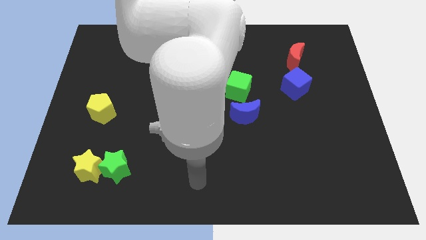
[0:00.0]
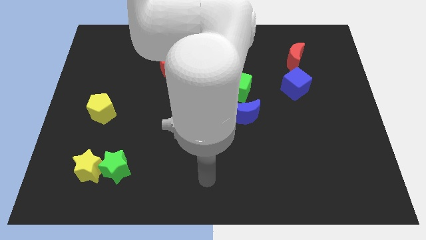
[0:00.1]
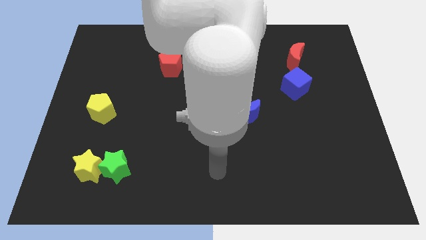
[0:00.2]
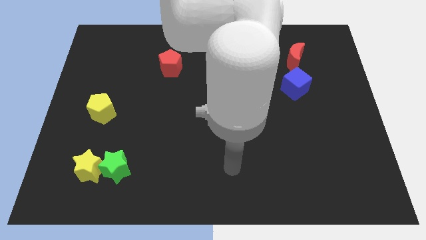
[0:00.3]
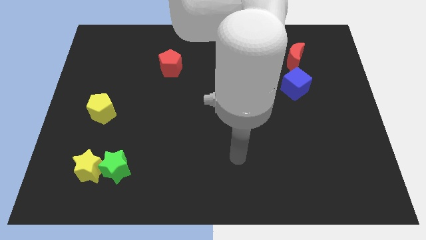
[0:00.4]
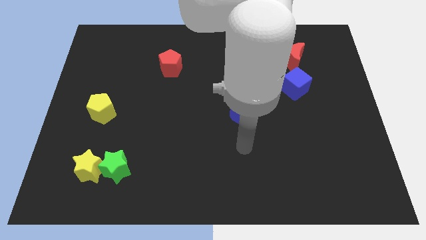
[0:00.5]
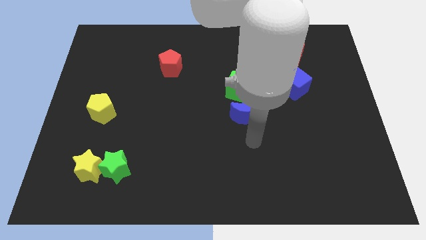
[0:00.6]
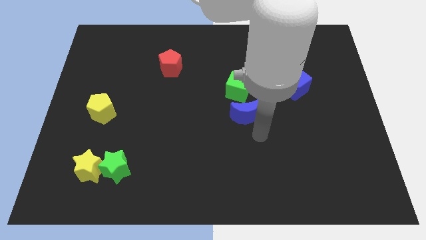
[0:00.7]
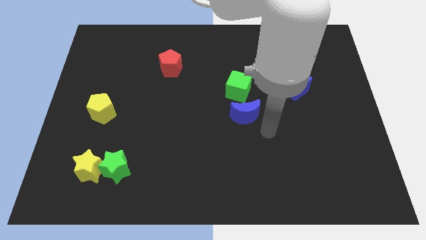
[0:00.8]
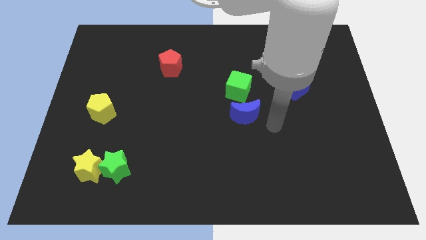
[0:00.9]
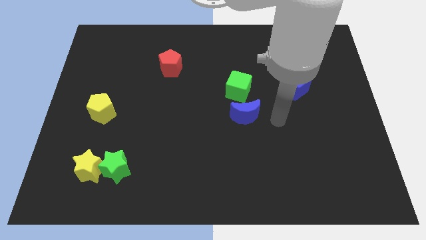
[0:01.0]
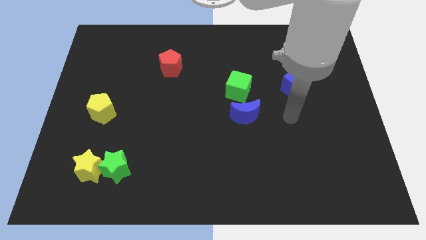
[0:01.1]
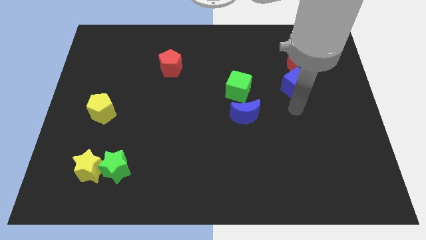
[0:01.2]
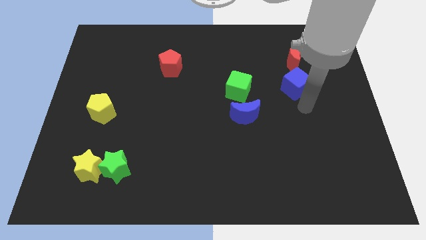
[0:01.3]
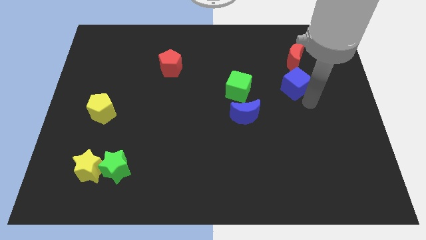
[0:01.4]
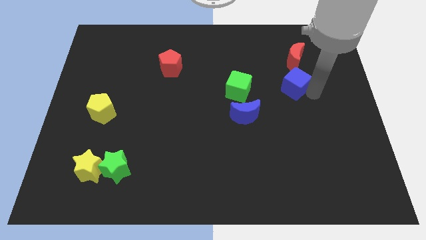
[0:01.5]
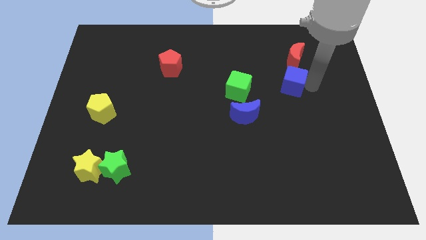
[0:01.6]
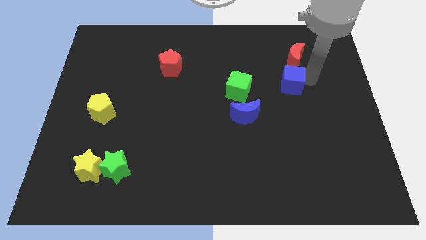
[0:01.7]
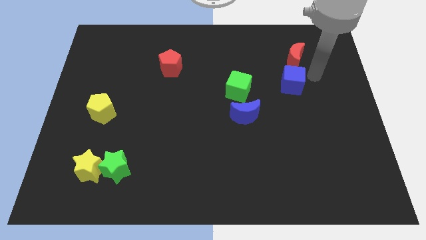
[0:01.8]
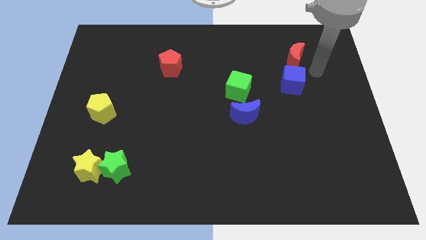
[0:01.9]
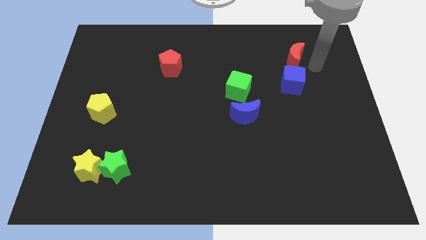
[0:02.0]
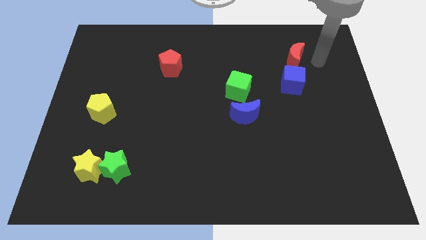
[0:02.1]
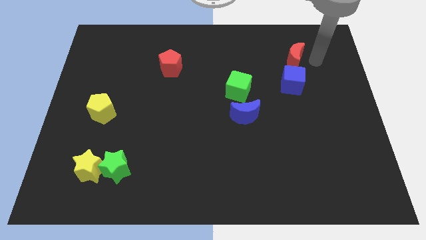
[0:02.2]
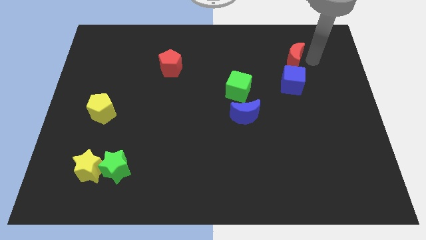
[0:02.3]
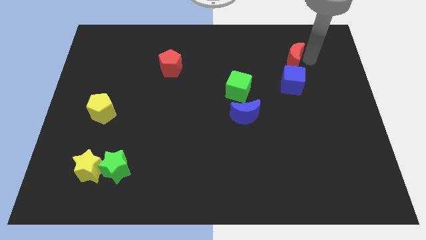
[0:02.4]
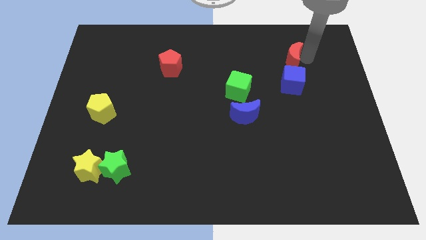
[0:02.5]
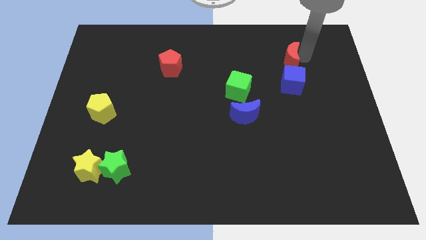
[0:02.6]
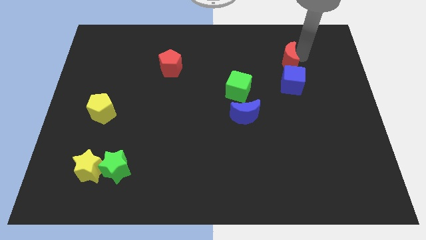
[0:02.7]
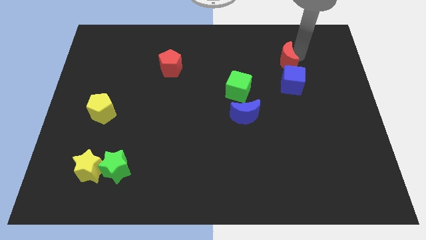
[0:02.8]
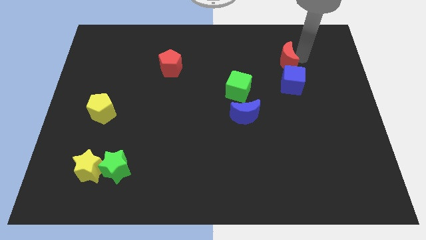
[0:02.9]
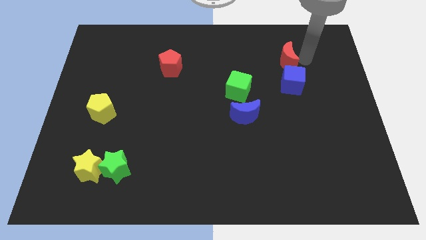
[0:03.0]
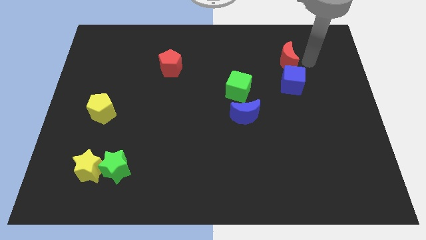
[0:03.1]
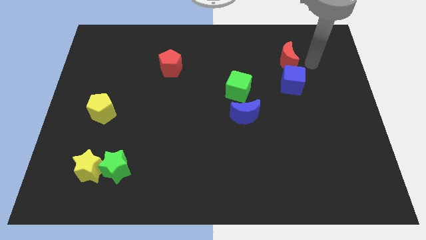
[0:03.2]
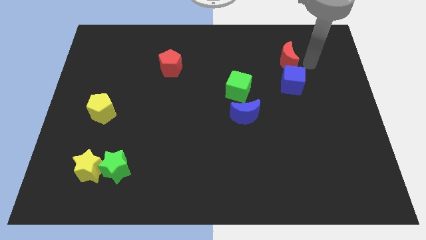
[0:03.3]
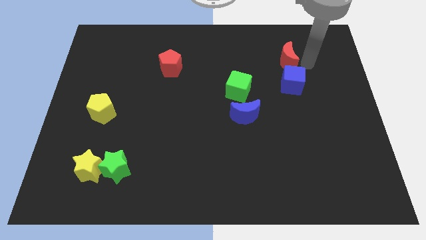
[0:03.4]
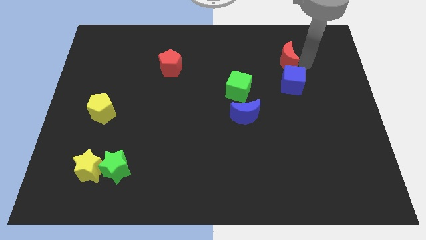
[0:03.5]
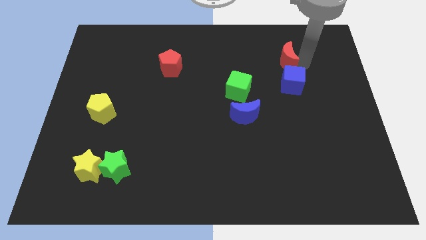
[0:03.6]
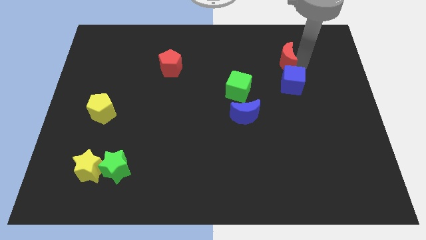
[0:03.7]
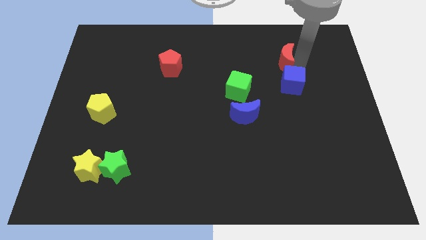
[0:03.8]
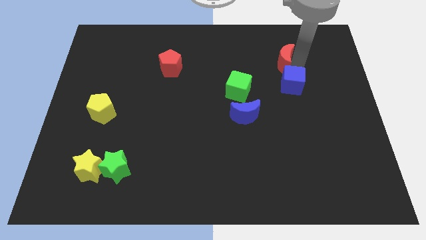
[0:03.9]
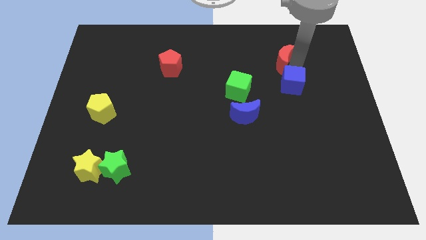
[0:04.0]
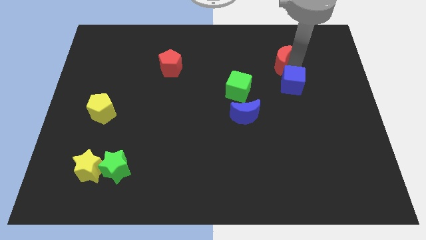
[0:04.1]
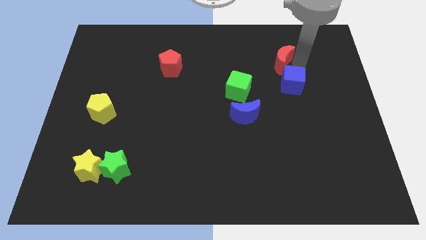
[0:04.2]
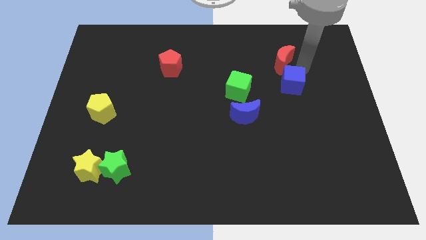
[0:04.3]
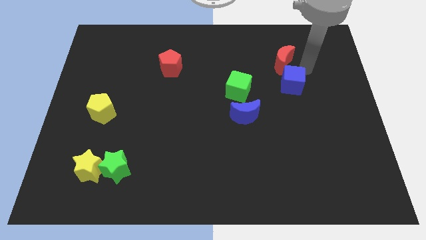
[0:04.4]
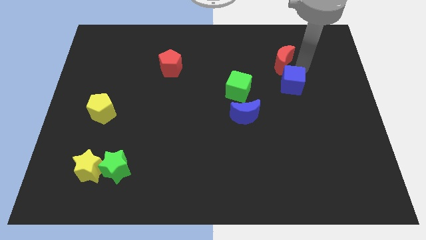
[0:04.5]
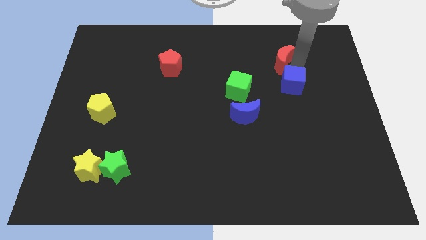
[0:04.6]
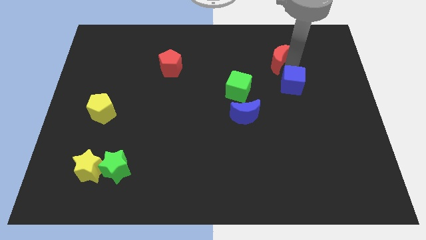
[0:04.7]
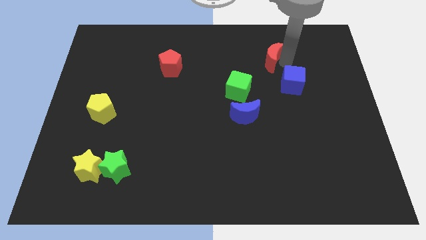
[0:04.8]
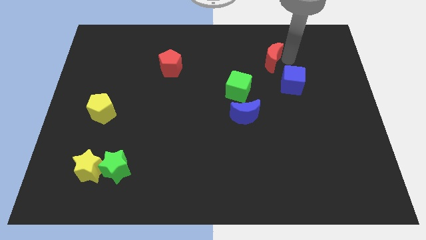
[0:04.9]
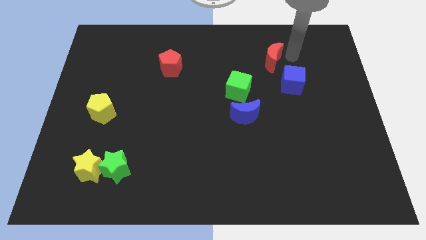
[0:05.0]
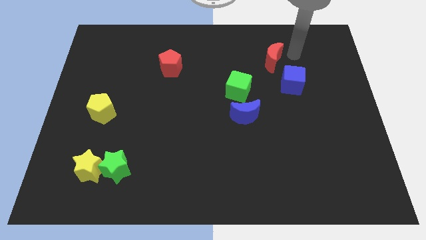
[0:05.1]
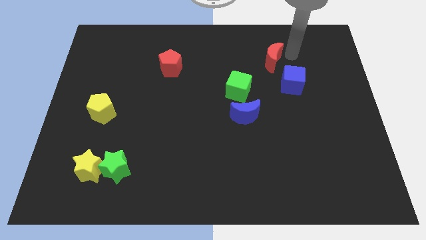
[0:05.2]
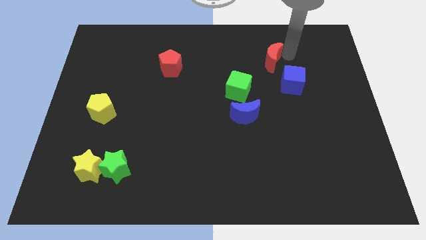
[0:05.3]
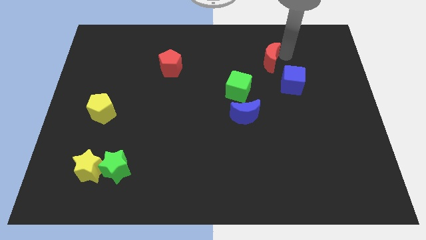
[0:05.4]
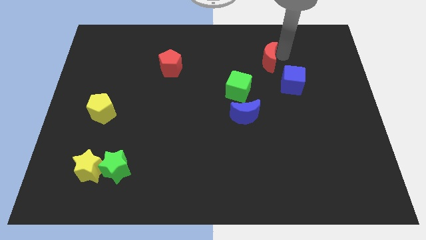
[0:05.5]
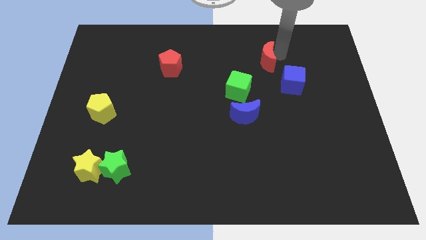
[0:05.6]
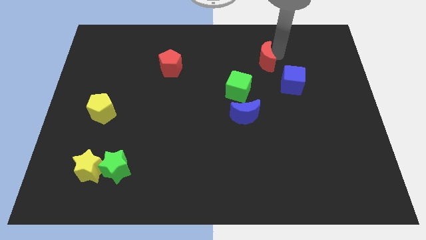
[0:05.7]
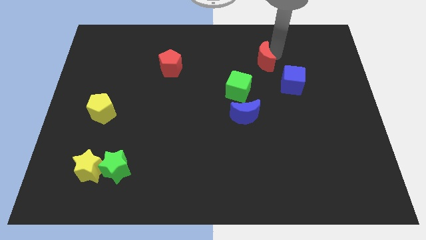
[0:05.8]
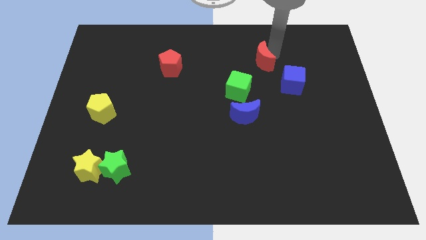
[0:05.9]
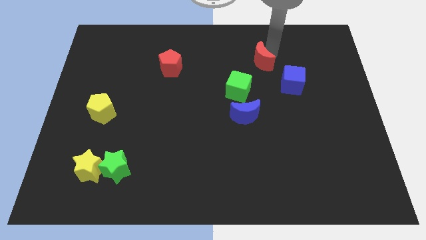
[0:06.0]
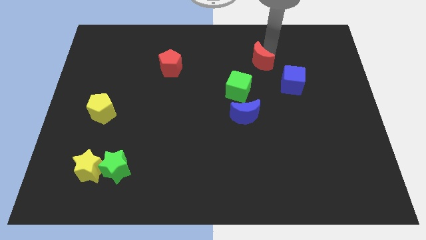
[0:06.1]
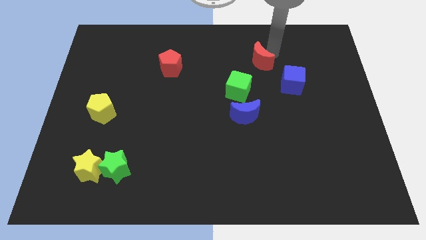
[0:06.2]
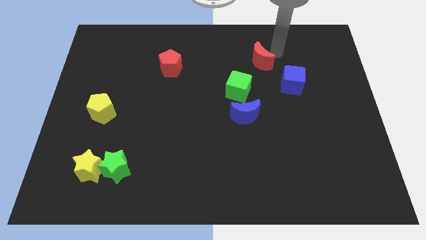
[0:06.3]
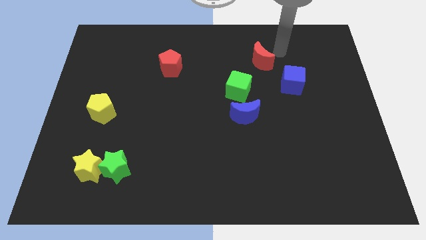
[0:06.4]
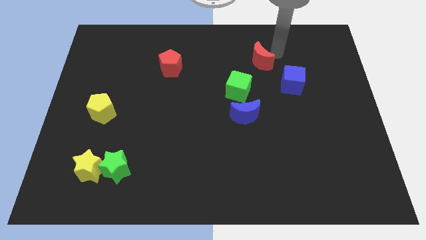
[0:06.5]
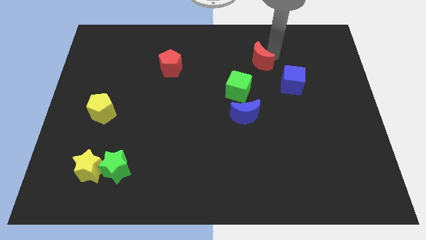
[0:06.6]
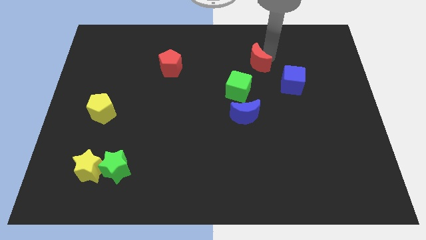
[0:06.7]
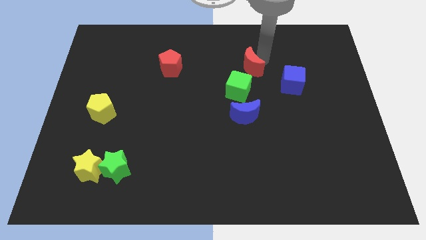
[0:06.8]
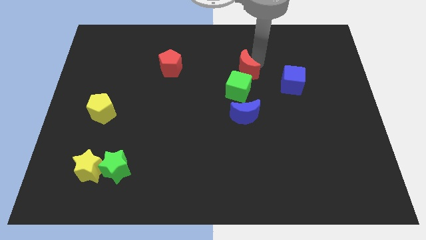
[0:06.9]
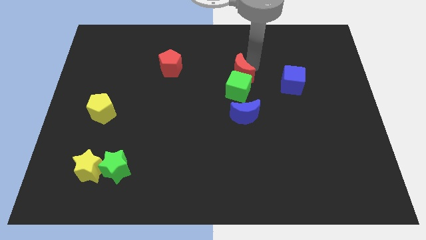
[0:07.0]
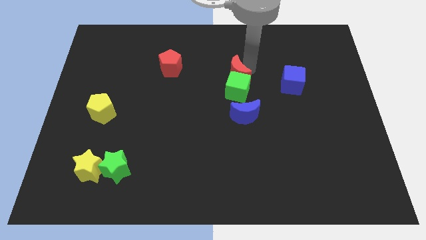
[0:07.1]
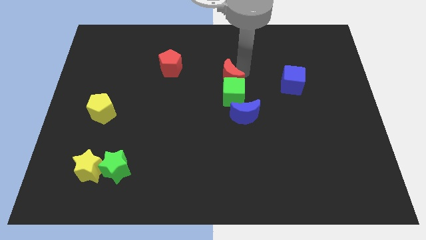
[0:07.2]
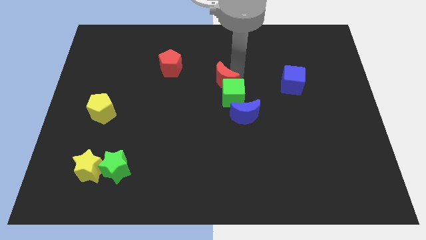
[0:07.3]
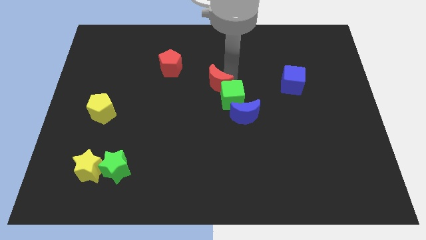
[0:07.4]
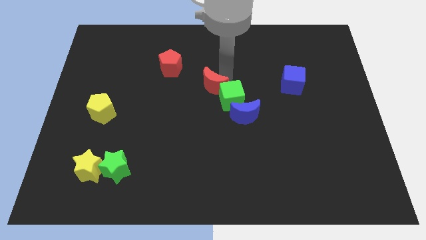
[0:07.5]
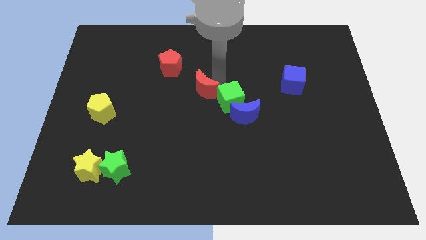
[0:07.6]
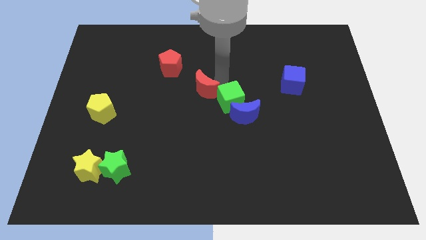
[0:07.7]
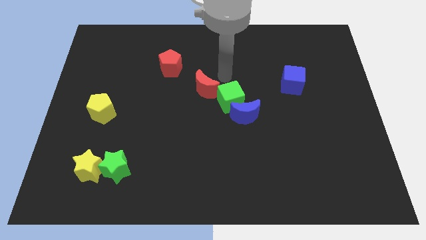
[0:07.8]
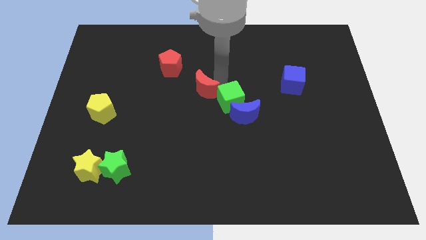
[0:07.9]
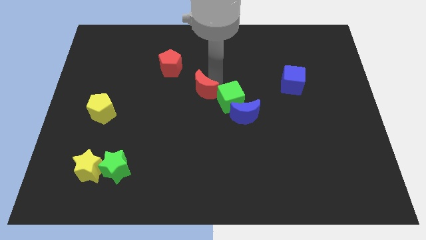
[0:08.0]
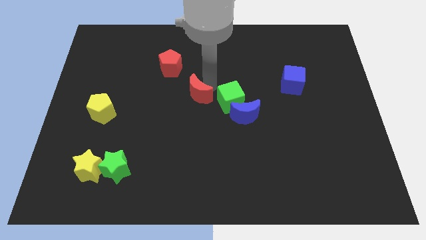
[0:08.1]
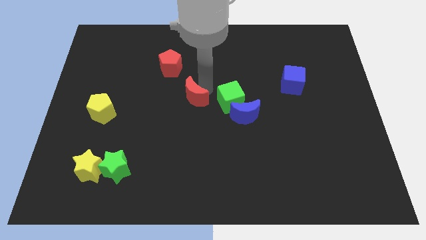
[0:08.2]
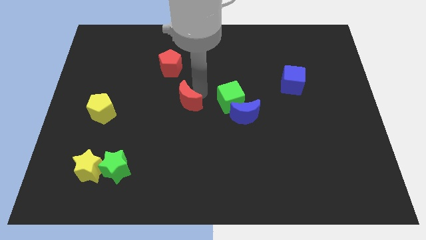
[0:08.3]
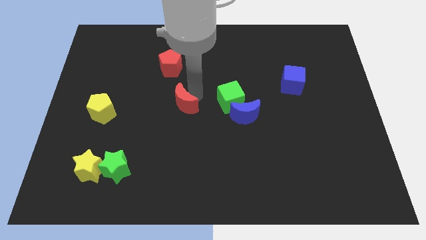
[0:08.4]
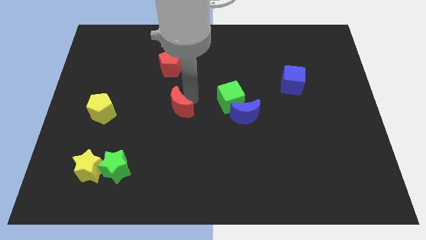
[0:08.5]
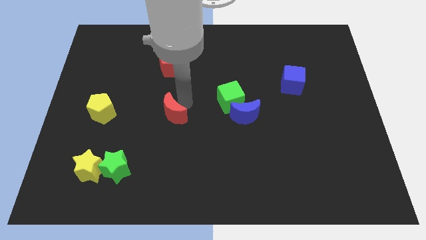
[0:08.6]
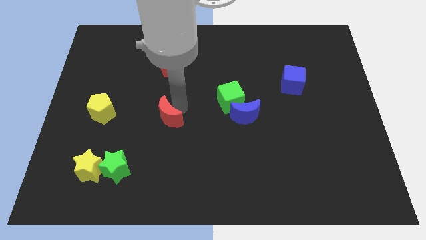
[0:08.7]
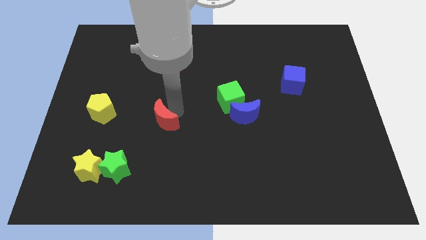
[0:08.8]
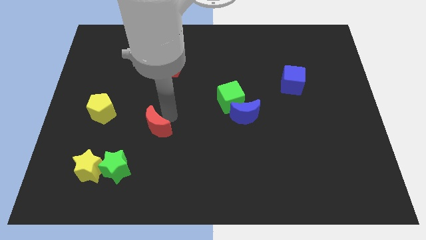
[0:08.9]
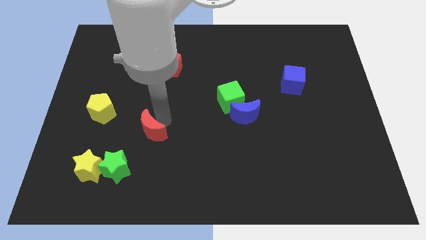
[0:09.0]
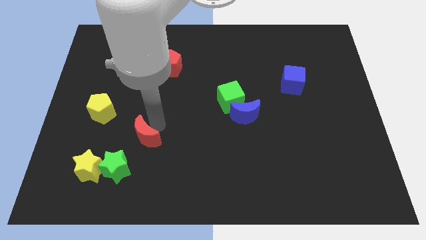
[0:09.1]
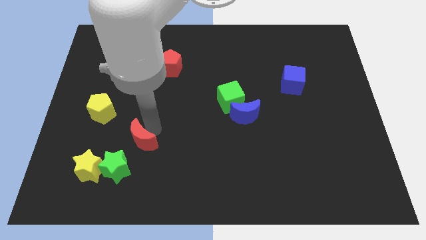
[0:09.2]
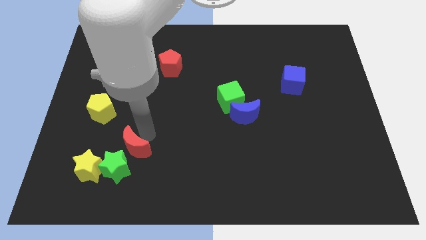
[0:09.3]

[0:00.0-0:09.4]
put the red moon to the green star
